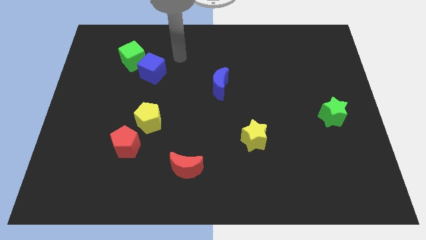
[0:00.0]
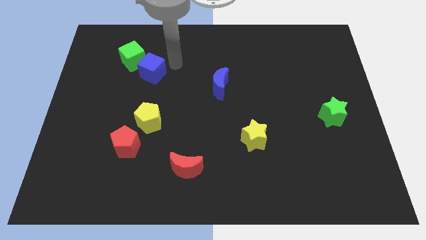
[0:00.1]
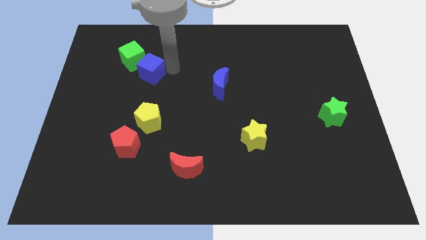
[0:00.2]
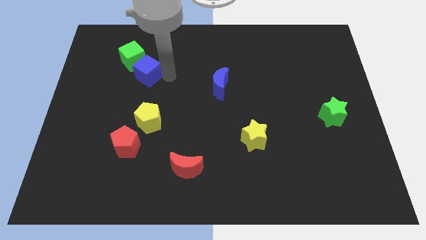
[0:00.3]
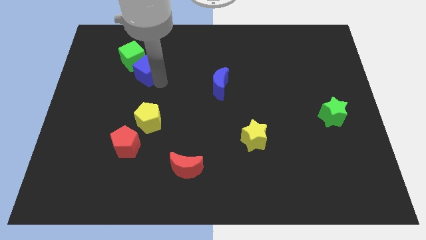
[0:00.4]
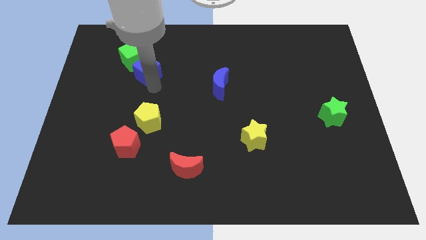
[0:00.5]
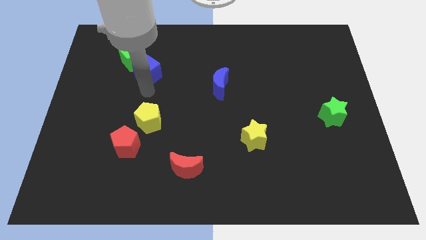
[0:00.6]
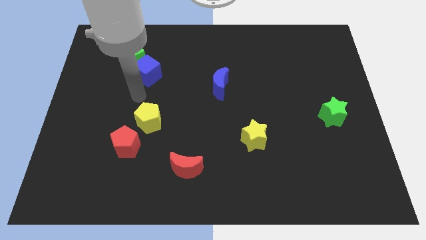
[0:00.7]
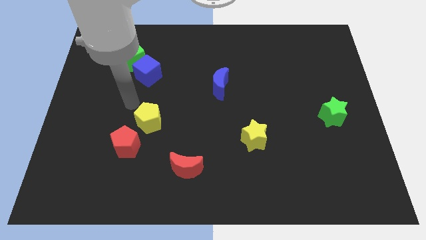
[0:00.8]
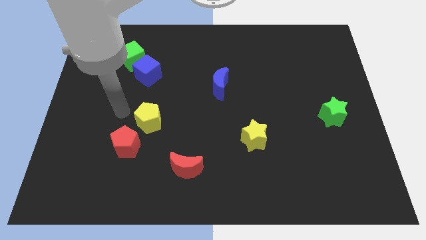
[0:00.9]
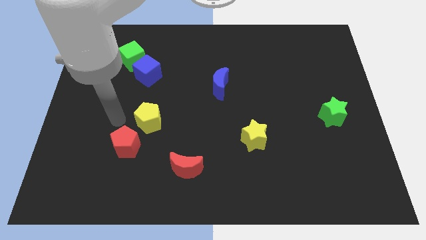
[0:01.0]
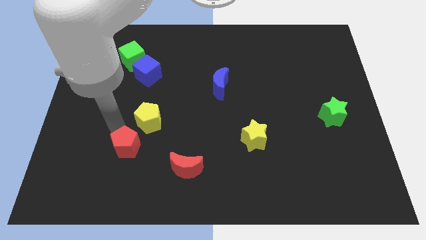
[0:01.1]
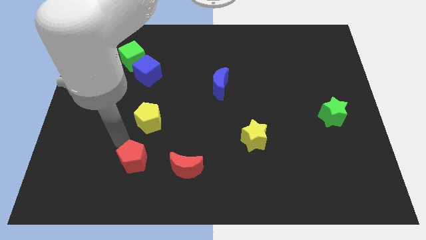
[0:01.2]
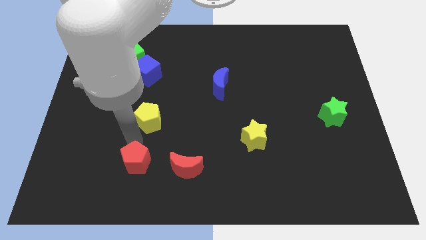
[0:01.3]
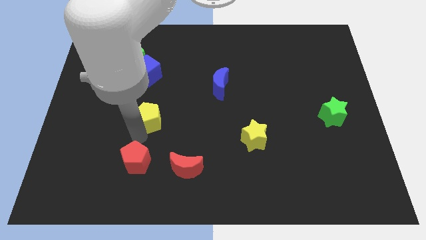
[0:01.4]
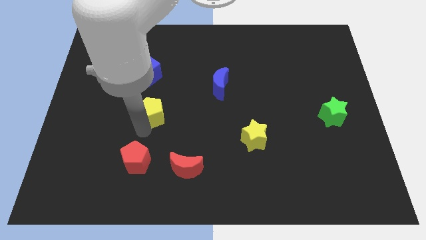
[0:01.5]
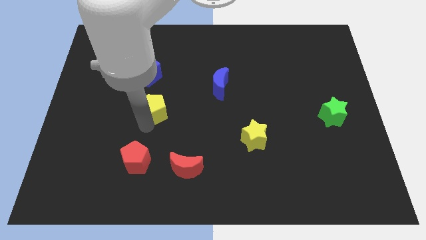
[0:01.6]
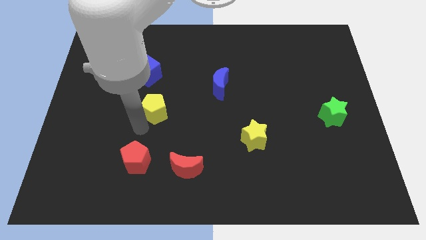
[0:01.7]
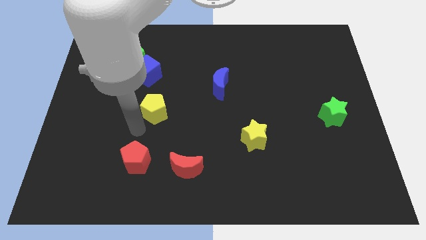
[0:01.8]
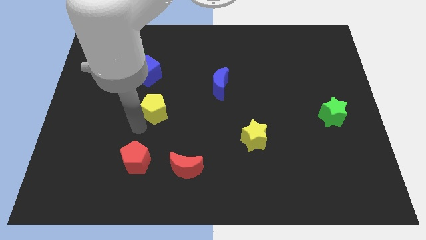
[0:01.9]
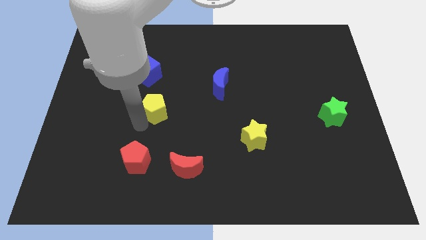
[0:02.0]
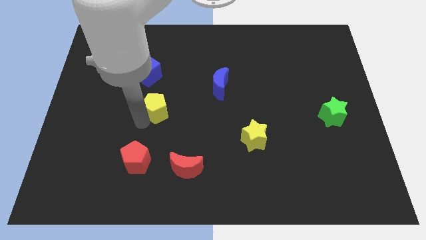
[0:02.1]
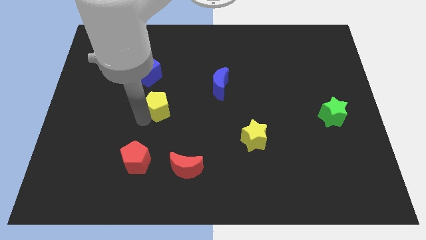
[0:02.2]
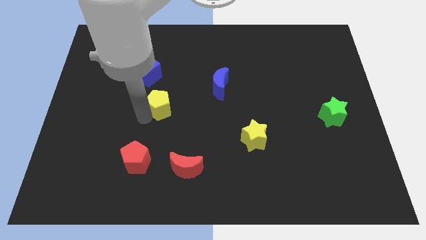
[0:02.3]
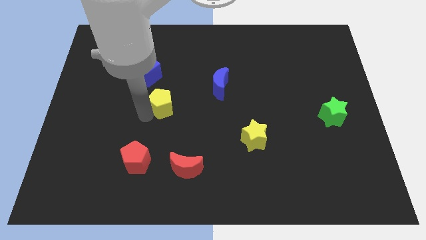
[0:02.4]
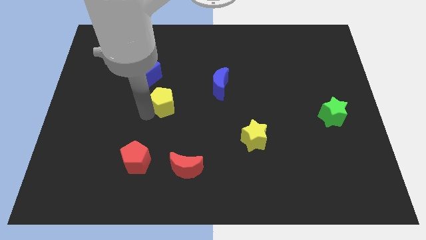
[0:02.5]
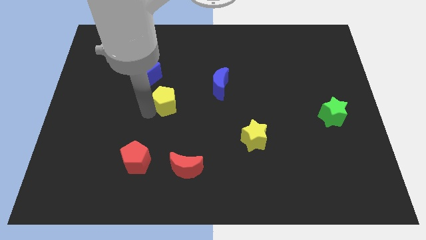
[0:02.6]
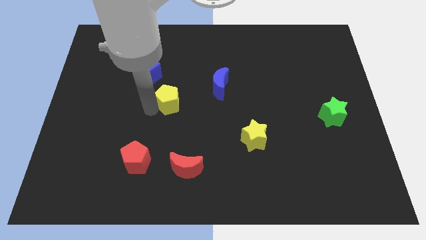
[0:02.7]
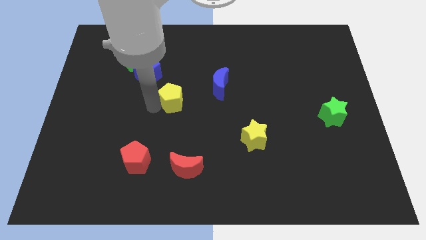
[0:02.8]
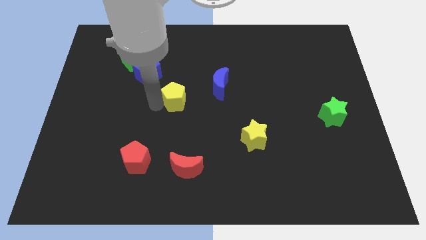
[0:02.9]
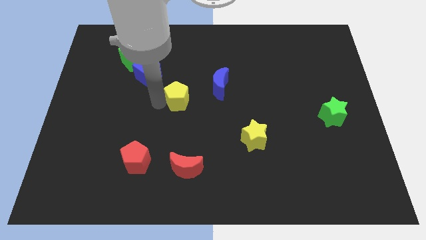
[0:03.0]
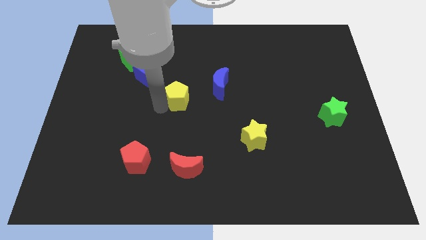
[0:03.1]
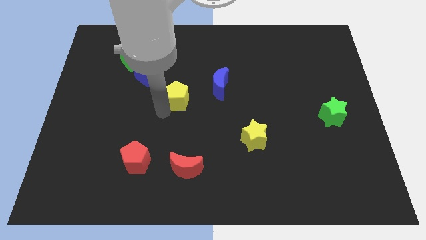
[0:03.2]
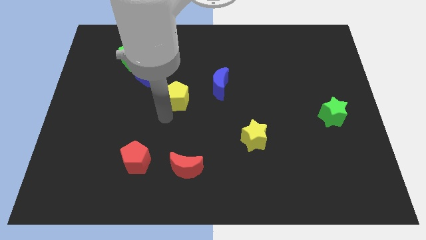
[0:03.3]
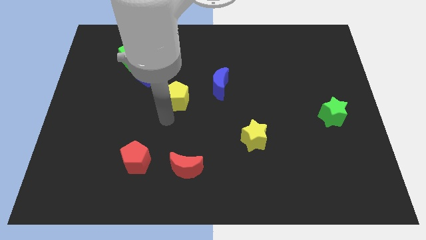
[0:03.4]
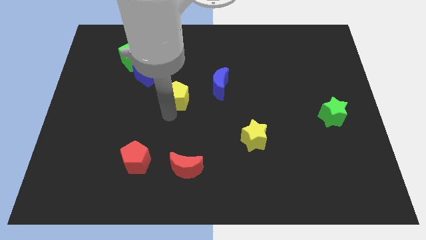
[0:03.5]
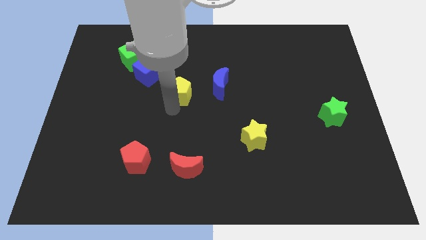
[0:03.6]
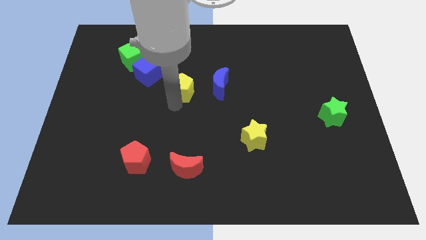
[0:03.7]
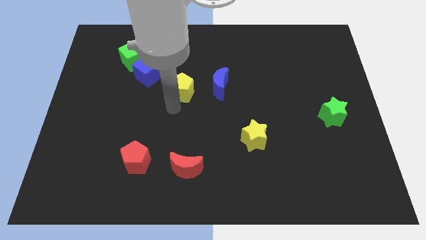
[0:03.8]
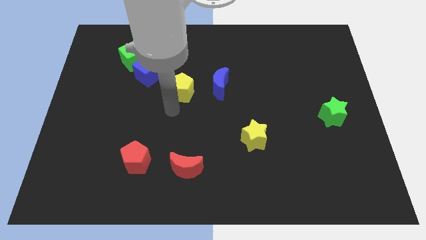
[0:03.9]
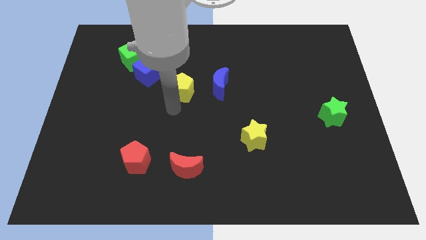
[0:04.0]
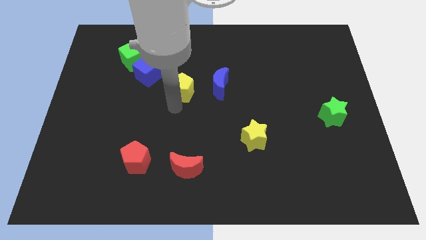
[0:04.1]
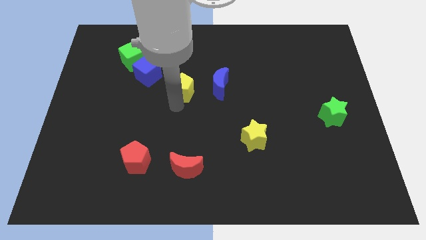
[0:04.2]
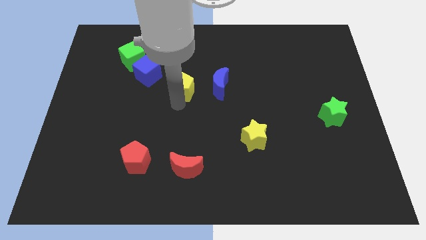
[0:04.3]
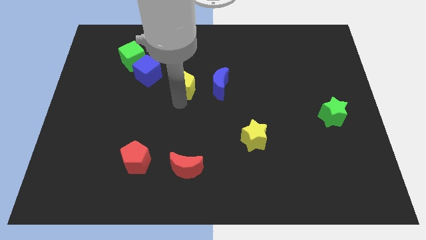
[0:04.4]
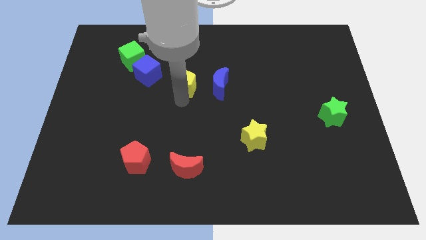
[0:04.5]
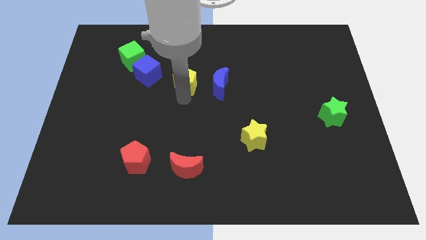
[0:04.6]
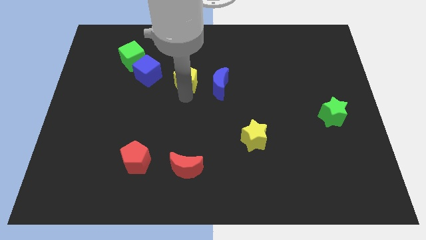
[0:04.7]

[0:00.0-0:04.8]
push the yellow pentagon to the top left side of the blue moon

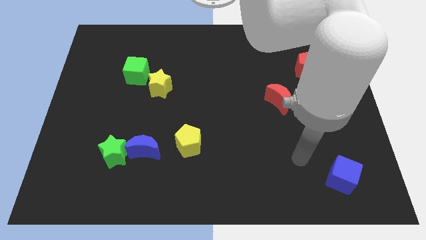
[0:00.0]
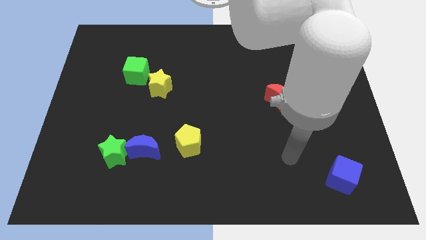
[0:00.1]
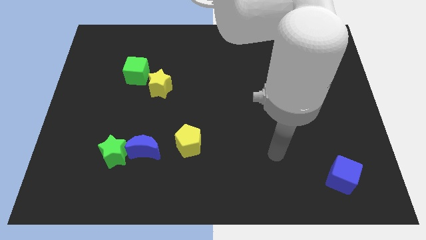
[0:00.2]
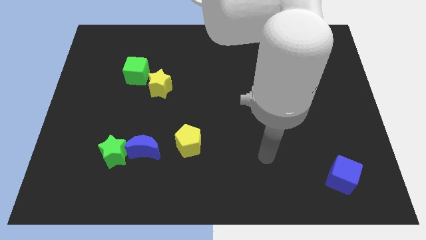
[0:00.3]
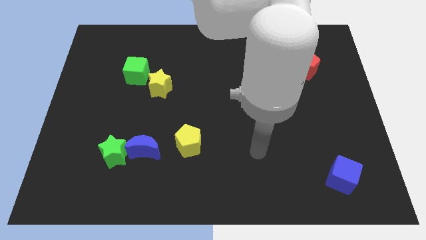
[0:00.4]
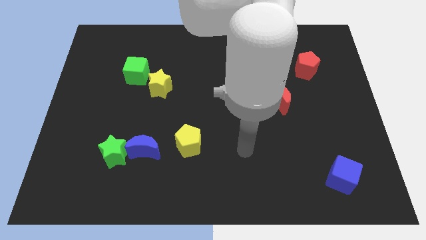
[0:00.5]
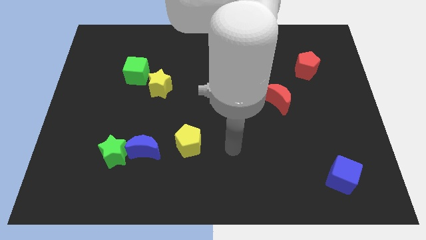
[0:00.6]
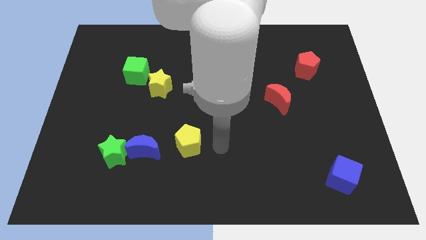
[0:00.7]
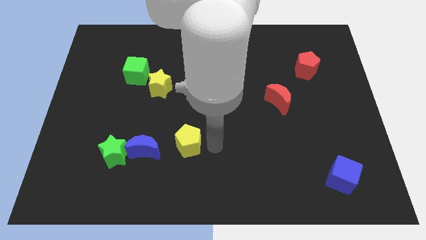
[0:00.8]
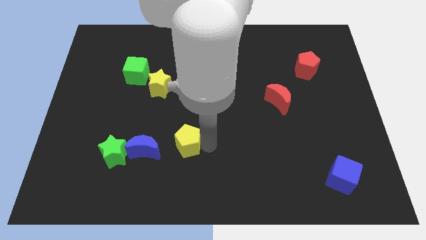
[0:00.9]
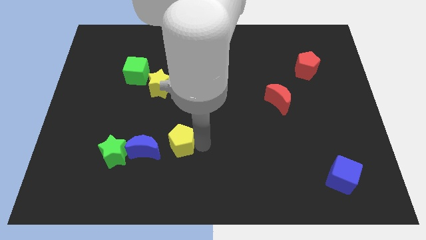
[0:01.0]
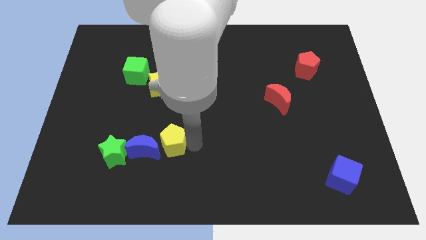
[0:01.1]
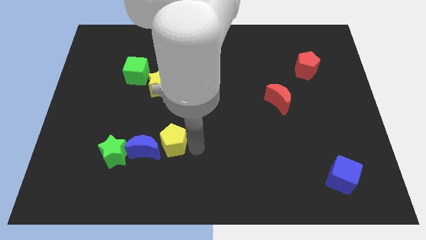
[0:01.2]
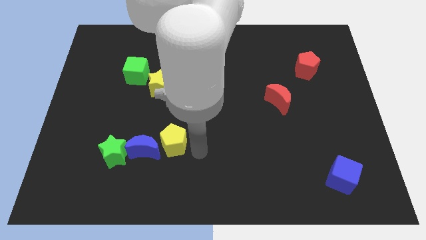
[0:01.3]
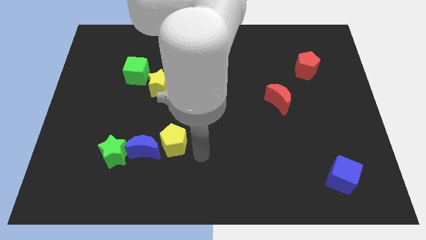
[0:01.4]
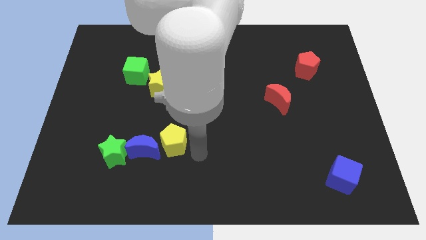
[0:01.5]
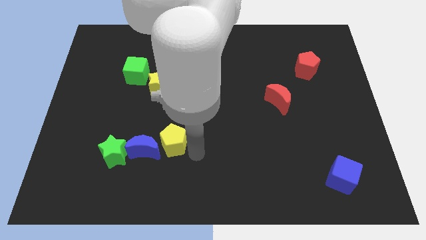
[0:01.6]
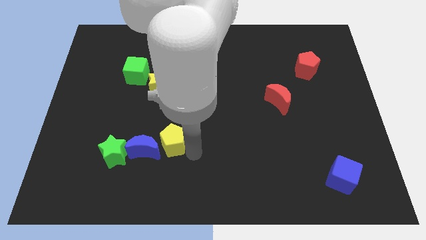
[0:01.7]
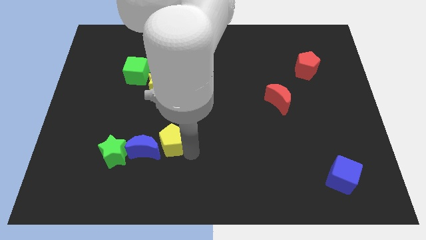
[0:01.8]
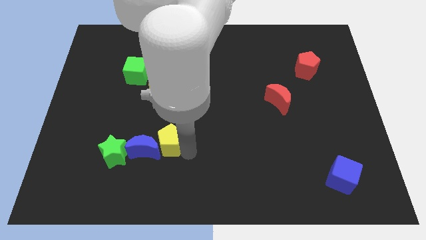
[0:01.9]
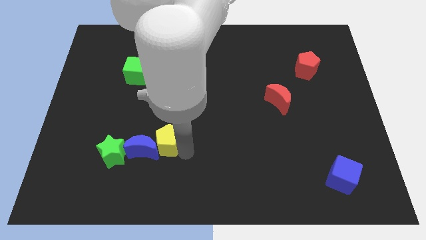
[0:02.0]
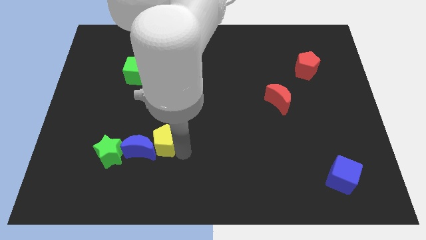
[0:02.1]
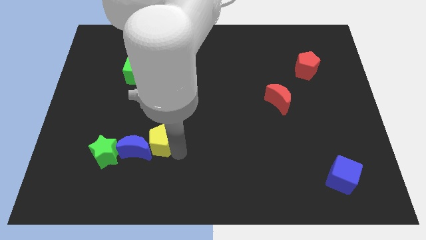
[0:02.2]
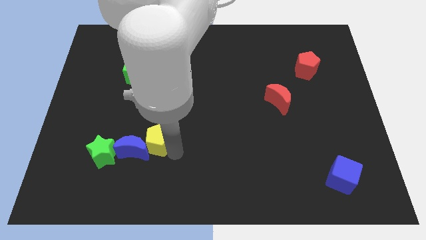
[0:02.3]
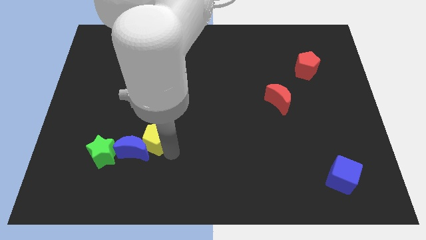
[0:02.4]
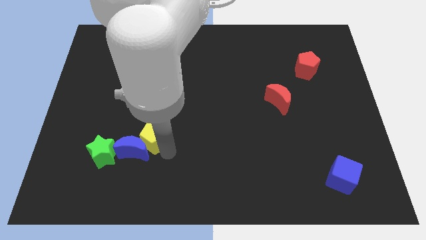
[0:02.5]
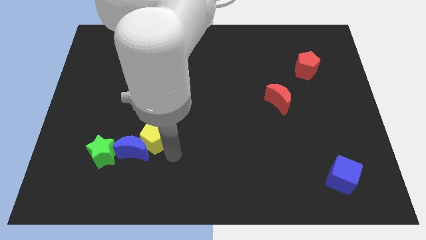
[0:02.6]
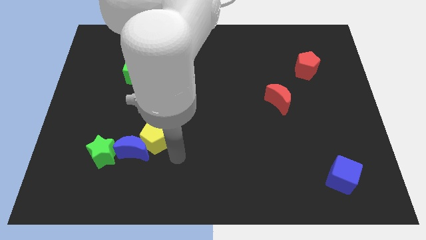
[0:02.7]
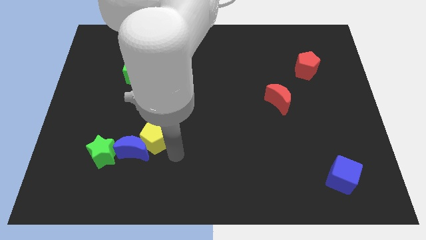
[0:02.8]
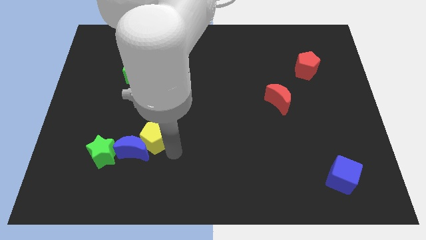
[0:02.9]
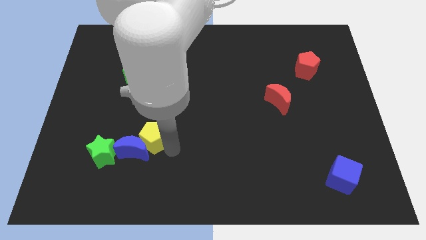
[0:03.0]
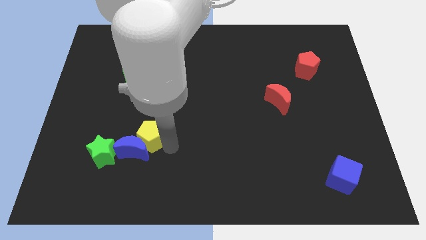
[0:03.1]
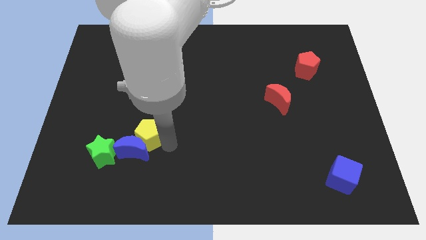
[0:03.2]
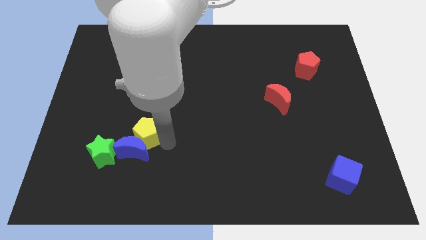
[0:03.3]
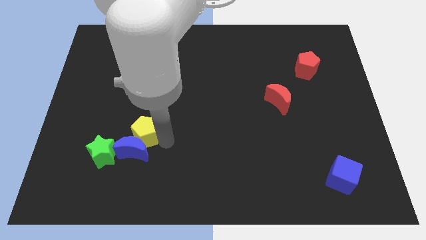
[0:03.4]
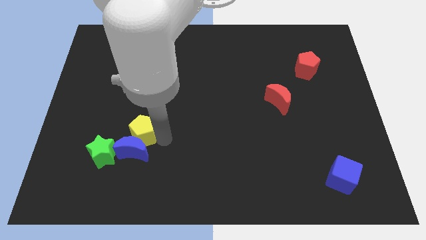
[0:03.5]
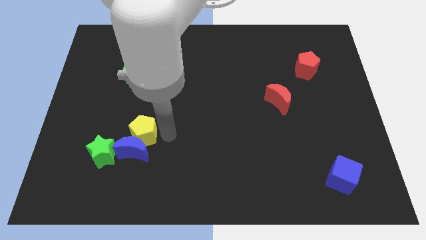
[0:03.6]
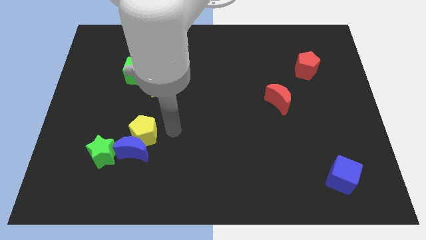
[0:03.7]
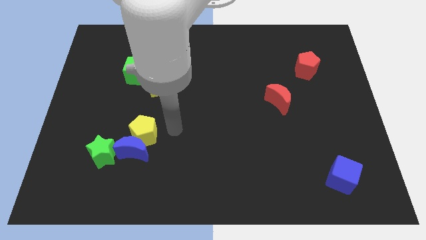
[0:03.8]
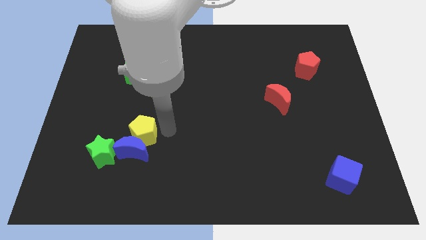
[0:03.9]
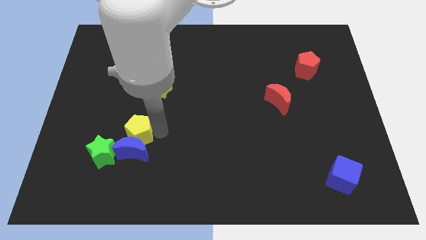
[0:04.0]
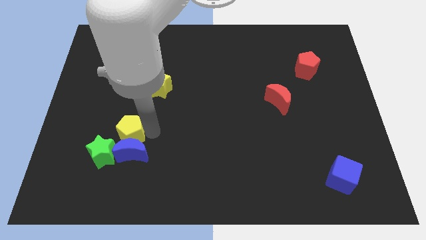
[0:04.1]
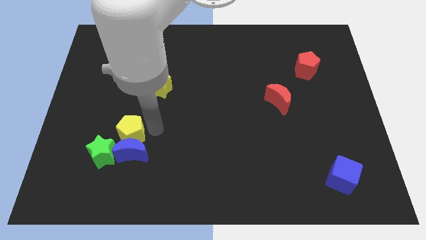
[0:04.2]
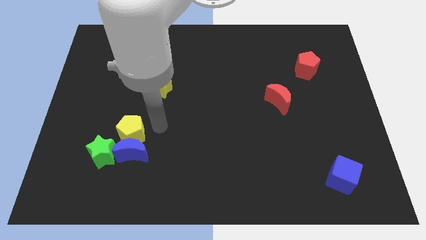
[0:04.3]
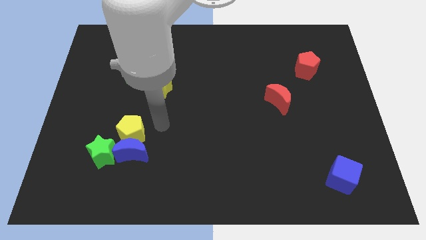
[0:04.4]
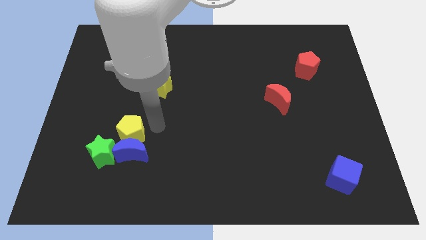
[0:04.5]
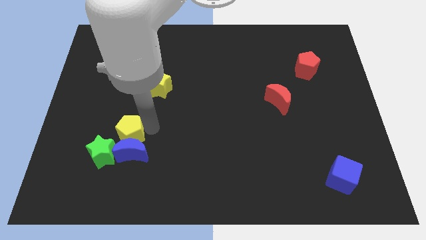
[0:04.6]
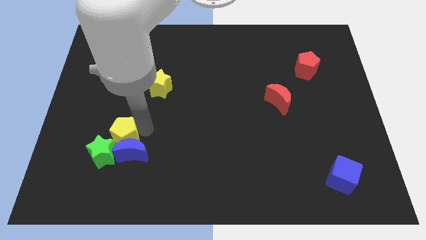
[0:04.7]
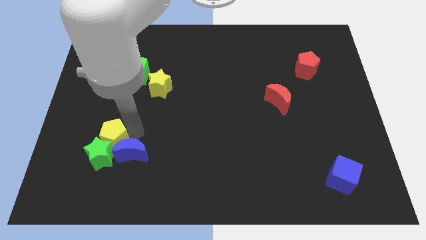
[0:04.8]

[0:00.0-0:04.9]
put the yellow pentagon to the left of the blue moon
